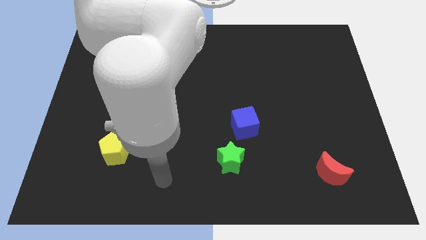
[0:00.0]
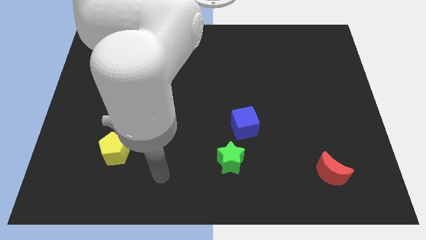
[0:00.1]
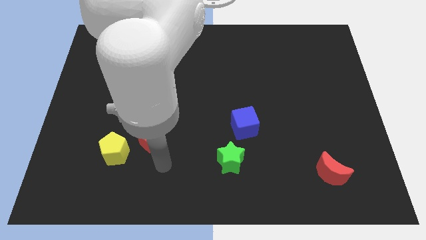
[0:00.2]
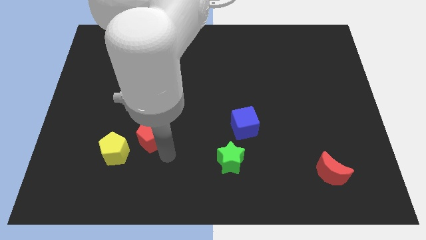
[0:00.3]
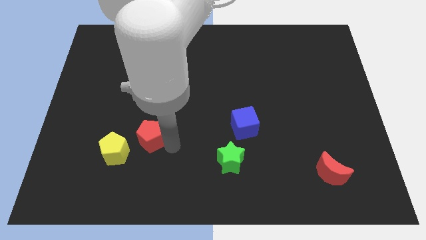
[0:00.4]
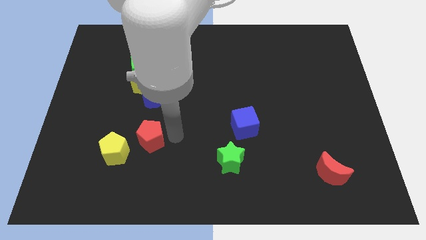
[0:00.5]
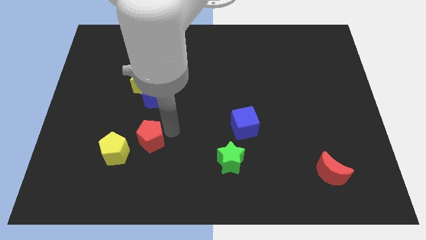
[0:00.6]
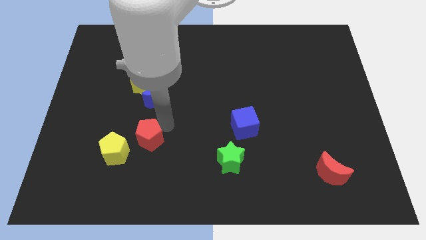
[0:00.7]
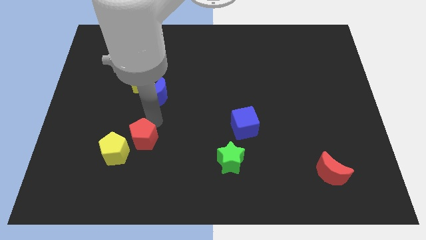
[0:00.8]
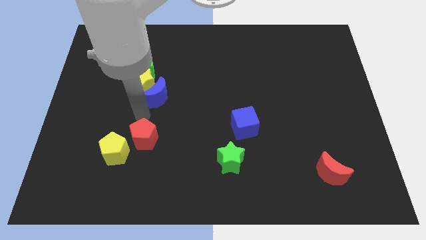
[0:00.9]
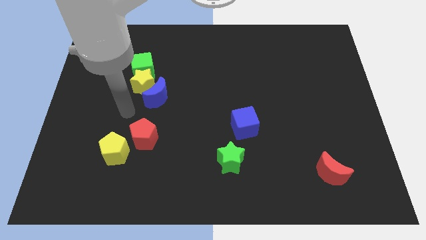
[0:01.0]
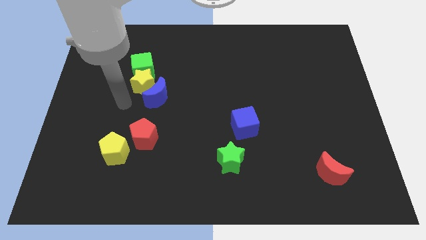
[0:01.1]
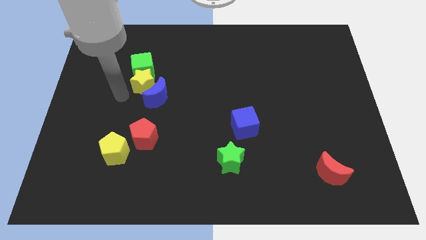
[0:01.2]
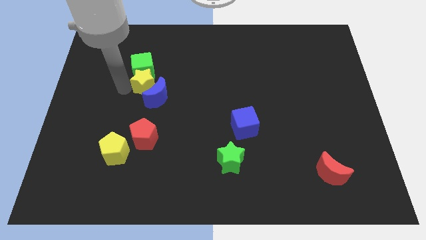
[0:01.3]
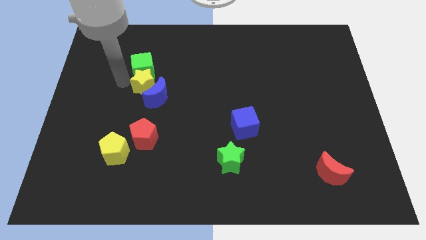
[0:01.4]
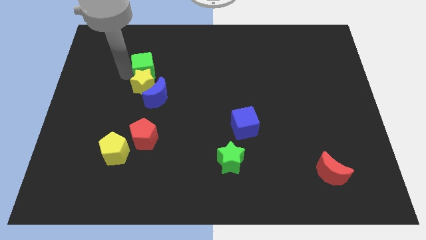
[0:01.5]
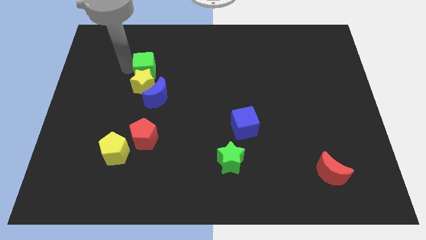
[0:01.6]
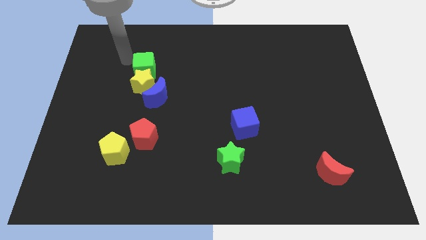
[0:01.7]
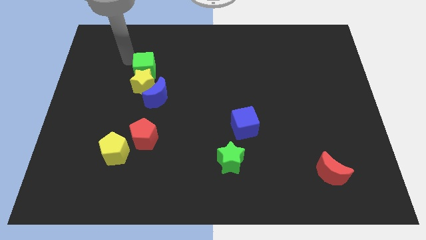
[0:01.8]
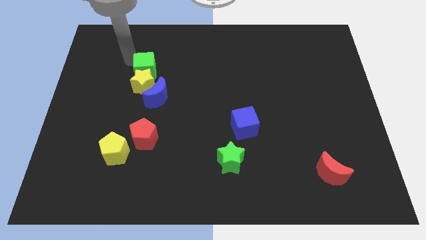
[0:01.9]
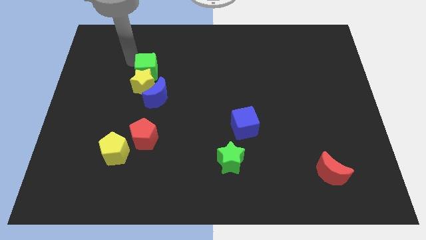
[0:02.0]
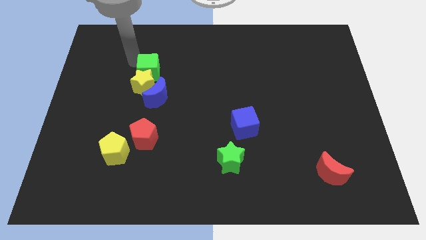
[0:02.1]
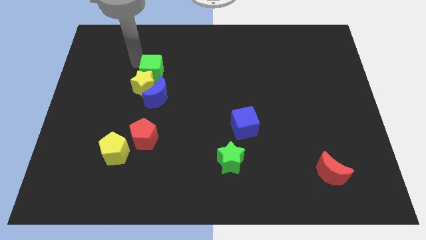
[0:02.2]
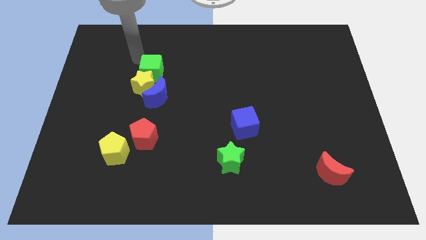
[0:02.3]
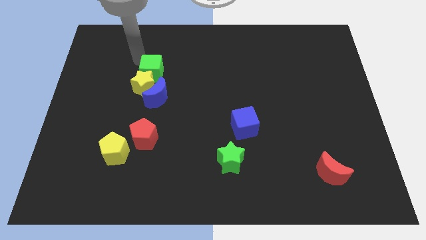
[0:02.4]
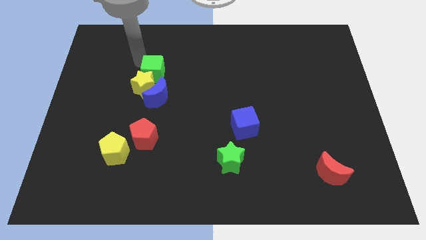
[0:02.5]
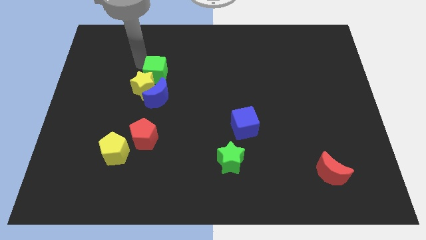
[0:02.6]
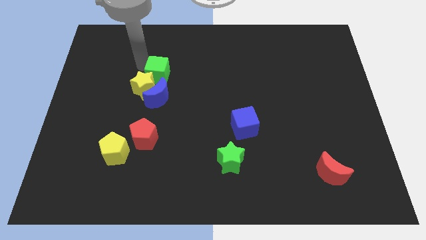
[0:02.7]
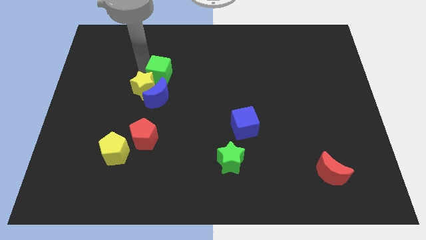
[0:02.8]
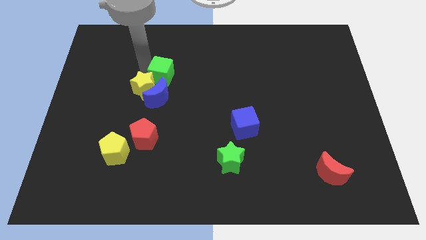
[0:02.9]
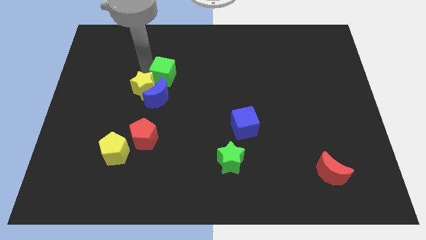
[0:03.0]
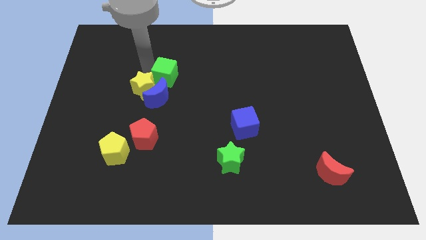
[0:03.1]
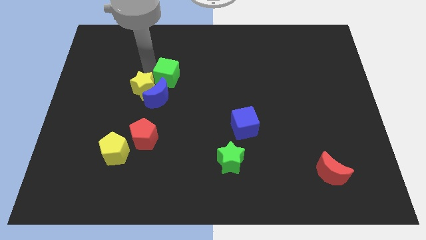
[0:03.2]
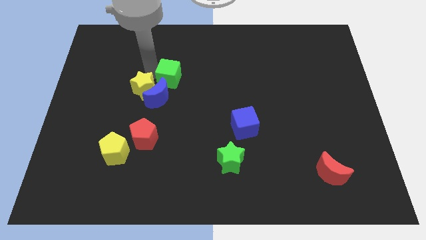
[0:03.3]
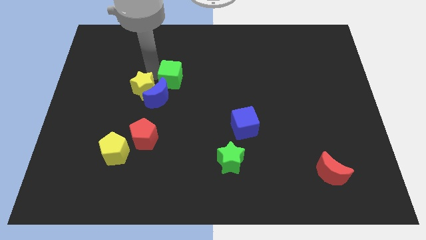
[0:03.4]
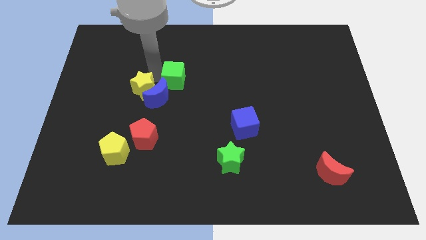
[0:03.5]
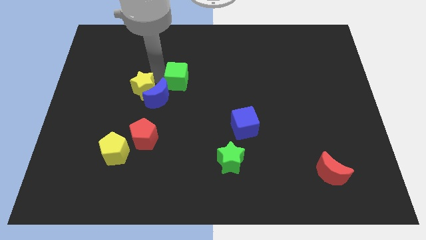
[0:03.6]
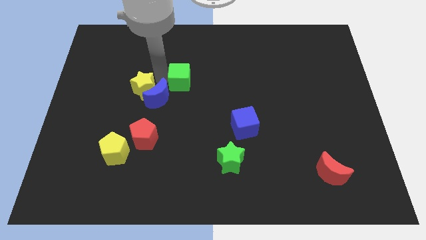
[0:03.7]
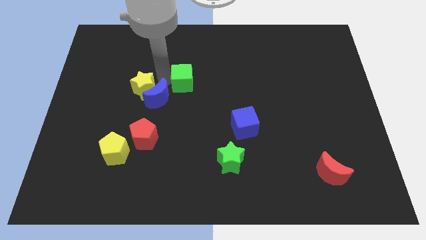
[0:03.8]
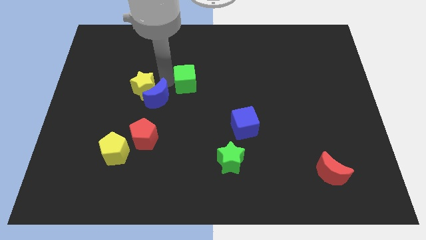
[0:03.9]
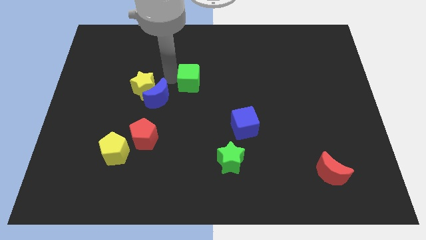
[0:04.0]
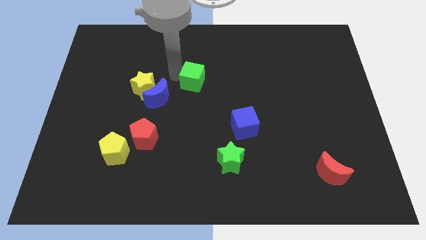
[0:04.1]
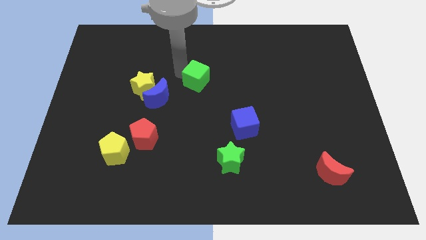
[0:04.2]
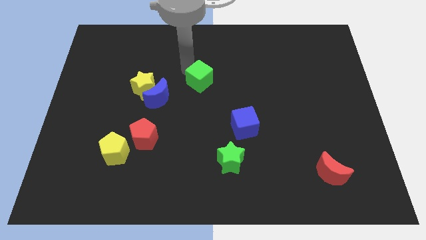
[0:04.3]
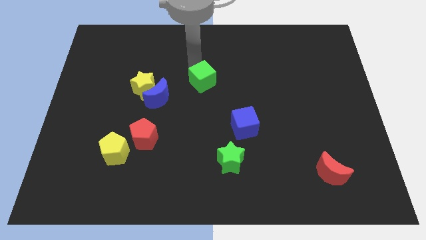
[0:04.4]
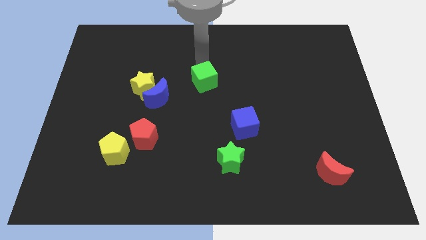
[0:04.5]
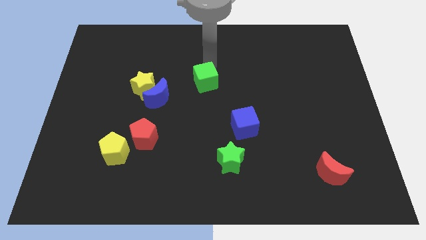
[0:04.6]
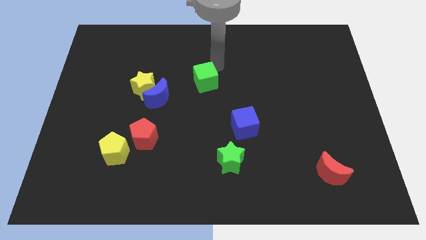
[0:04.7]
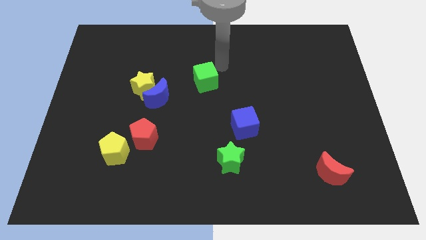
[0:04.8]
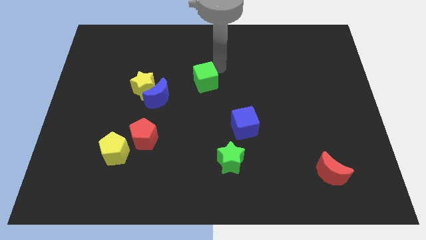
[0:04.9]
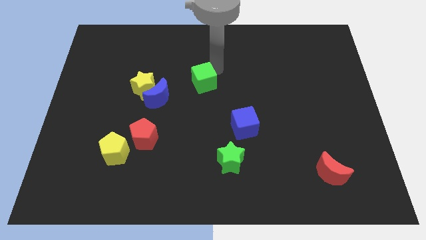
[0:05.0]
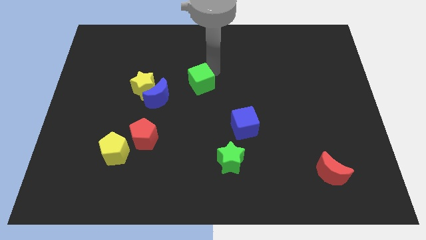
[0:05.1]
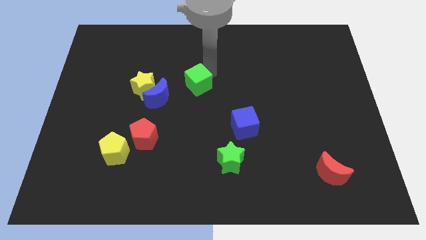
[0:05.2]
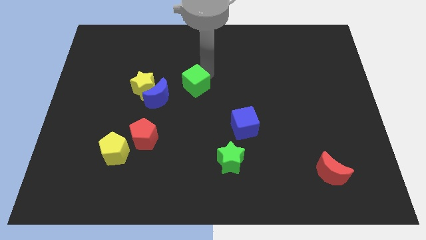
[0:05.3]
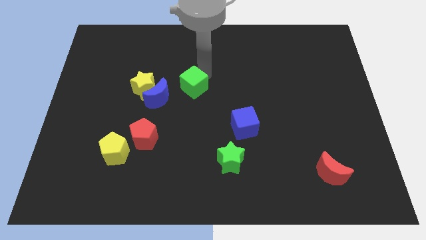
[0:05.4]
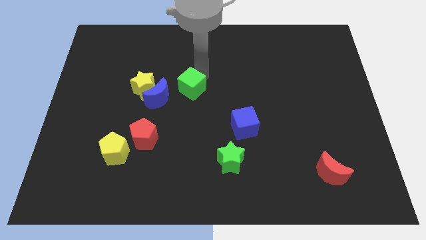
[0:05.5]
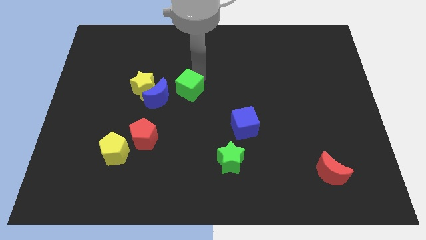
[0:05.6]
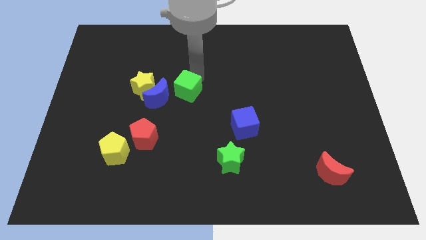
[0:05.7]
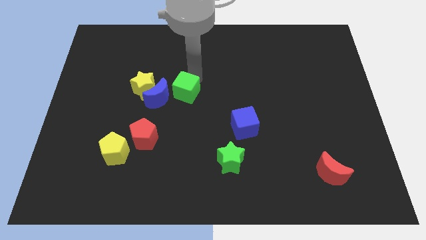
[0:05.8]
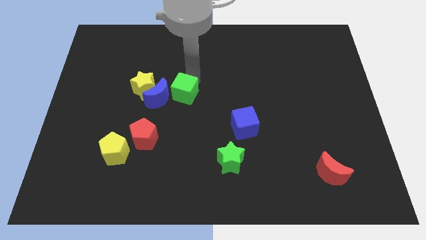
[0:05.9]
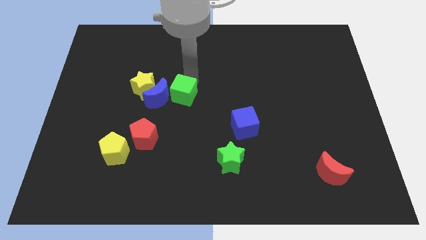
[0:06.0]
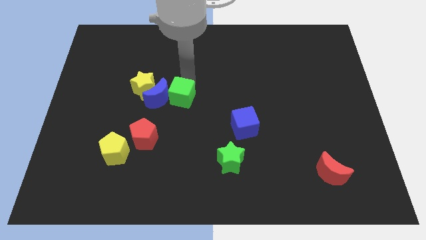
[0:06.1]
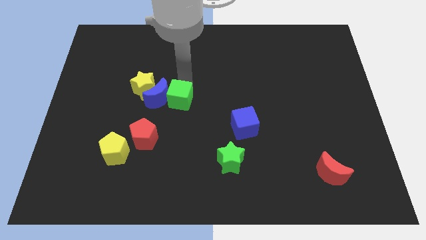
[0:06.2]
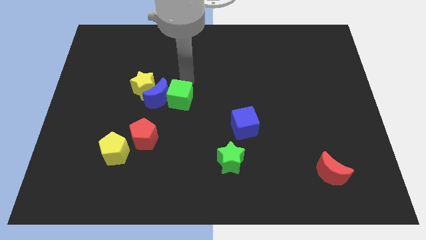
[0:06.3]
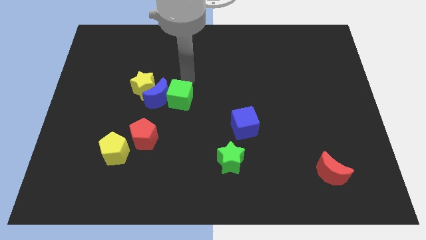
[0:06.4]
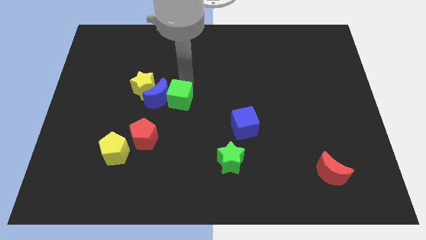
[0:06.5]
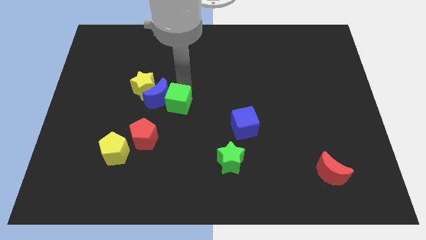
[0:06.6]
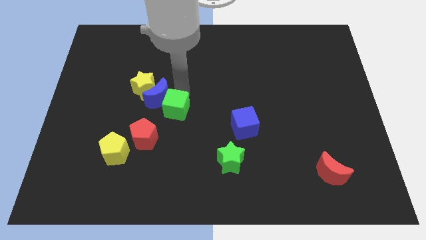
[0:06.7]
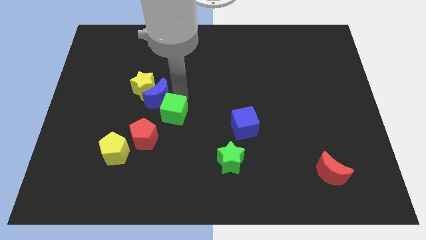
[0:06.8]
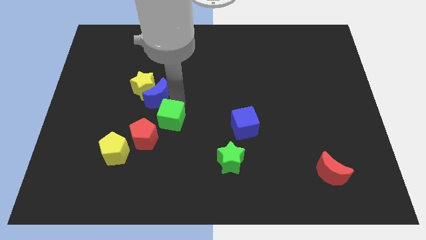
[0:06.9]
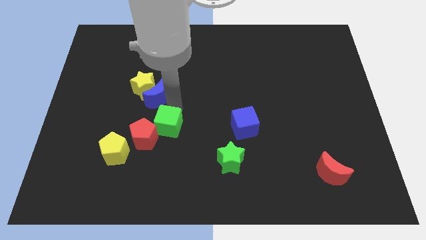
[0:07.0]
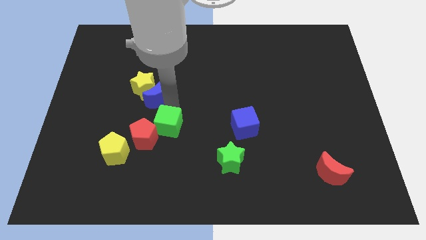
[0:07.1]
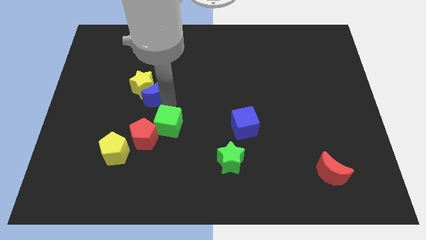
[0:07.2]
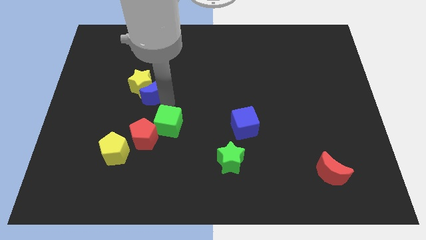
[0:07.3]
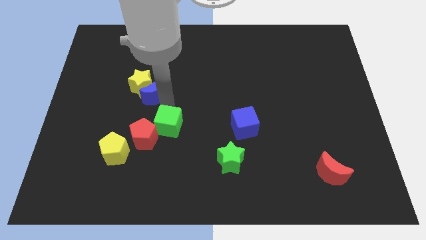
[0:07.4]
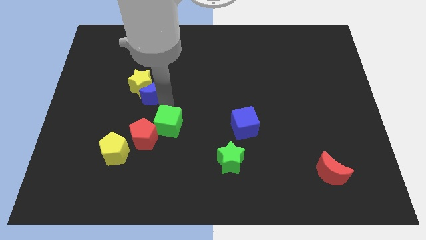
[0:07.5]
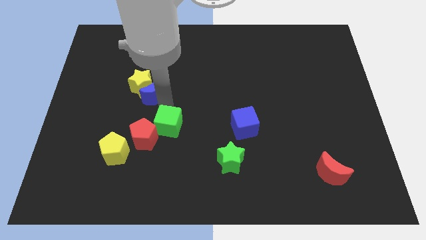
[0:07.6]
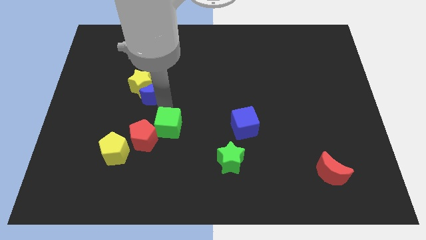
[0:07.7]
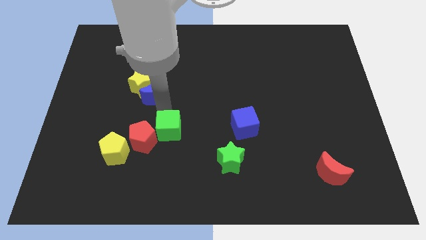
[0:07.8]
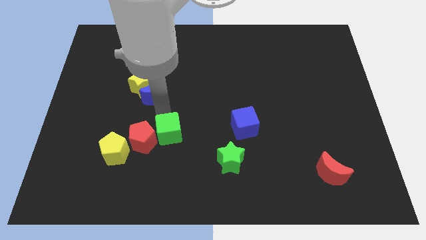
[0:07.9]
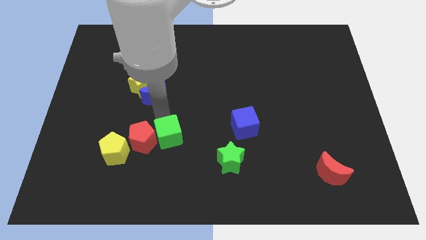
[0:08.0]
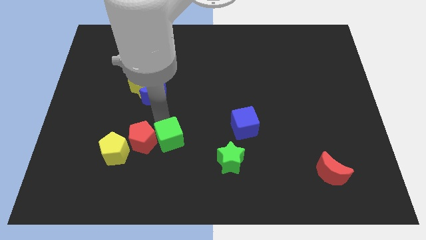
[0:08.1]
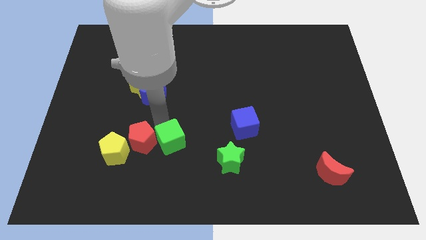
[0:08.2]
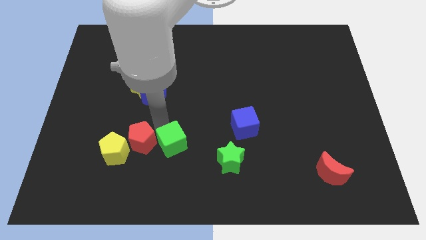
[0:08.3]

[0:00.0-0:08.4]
slide the green cube to the left of the green star
